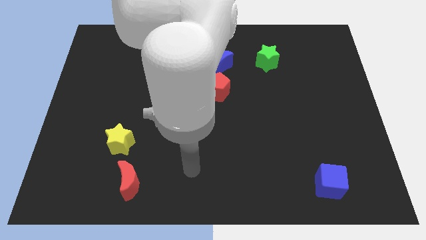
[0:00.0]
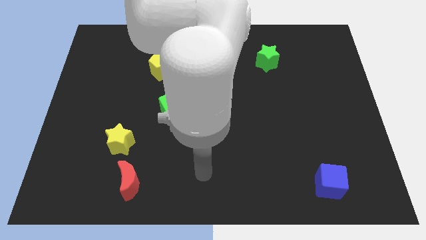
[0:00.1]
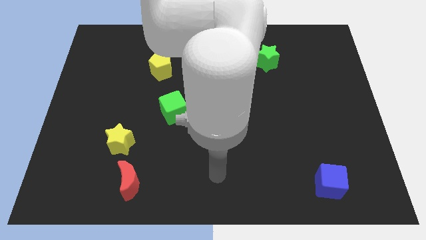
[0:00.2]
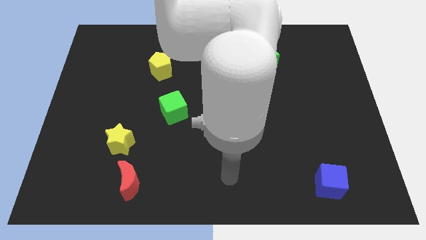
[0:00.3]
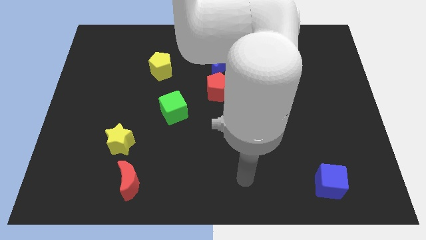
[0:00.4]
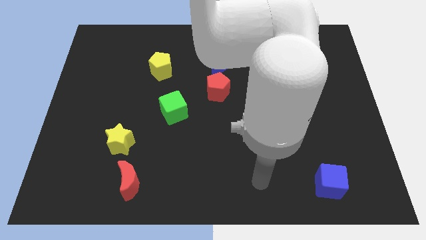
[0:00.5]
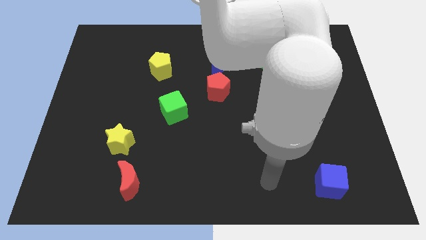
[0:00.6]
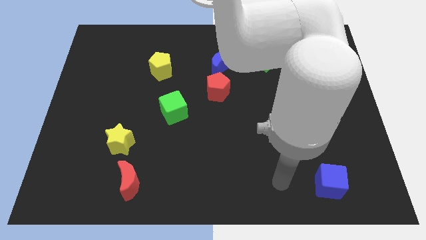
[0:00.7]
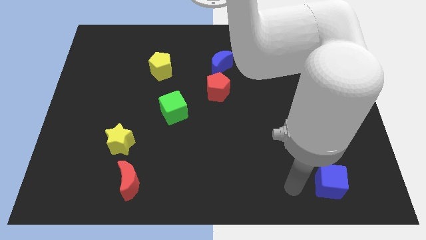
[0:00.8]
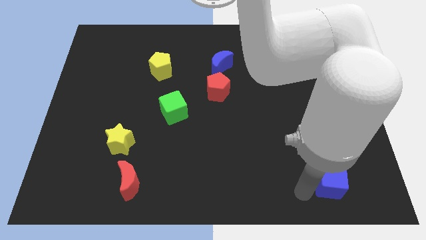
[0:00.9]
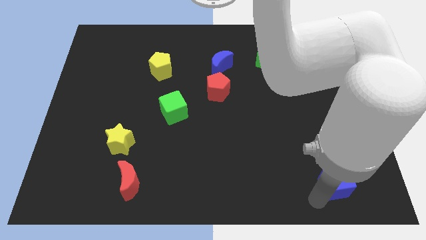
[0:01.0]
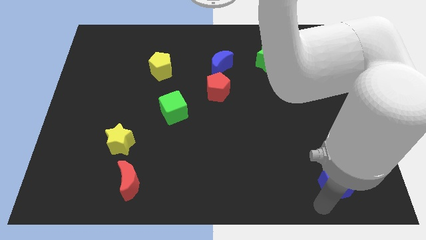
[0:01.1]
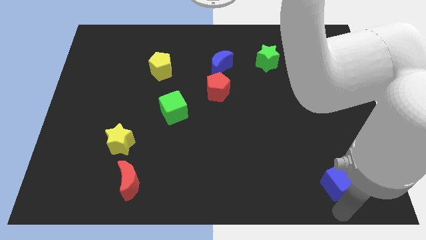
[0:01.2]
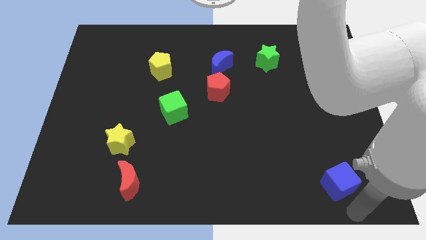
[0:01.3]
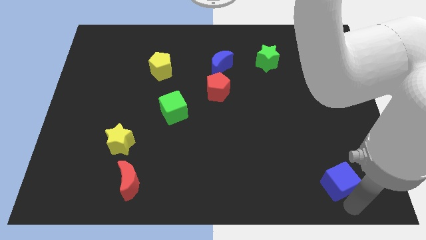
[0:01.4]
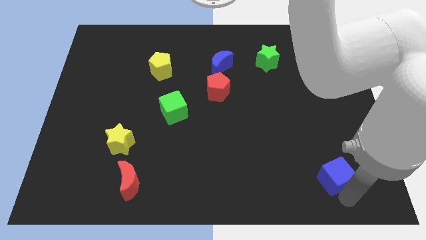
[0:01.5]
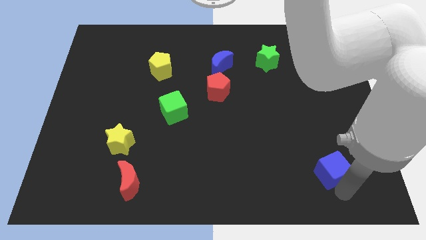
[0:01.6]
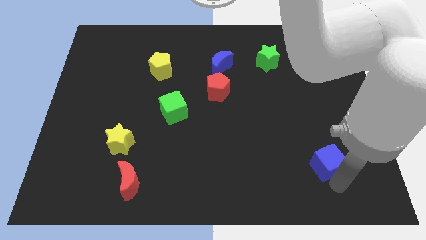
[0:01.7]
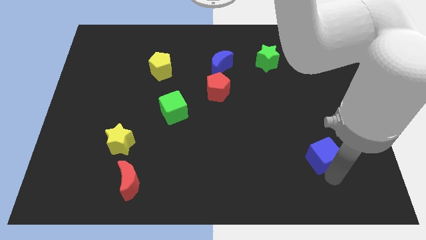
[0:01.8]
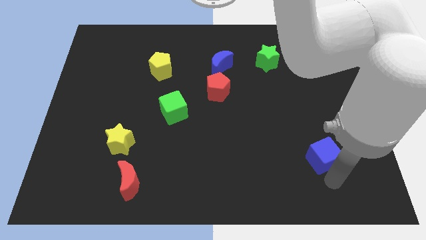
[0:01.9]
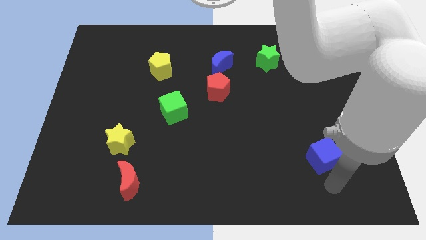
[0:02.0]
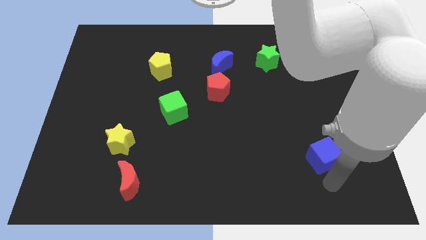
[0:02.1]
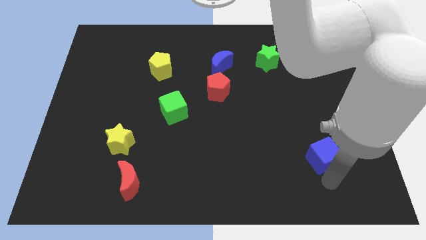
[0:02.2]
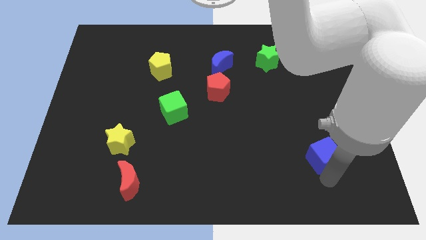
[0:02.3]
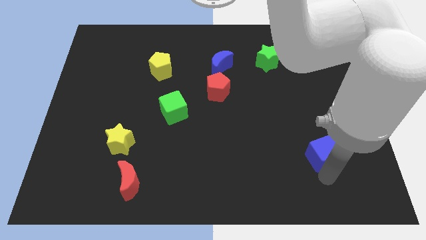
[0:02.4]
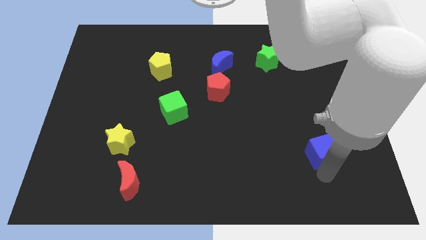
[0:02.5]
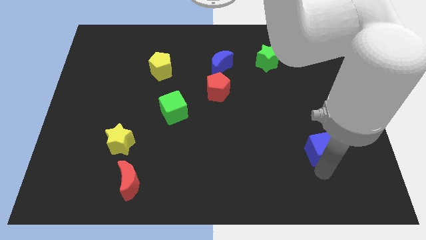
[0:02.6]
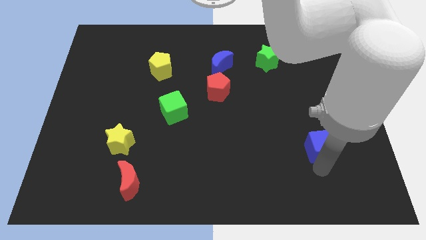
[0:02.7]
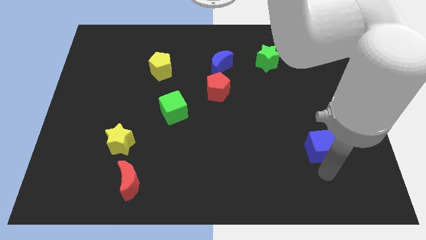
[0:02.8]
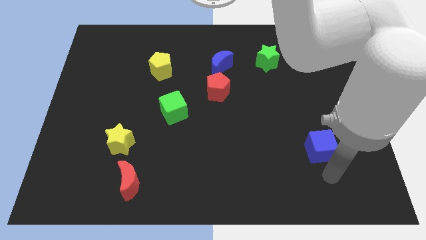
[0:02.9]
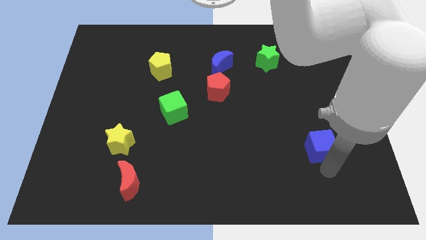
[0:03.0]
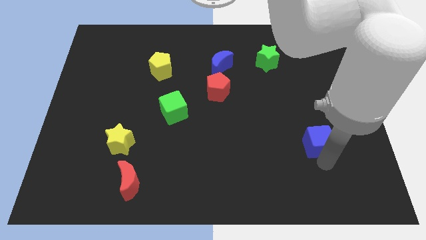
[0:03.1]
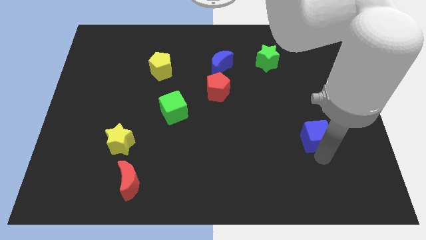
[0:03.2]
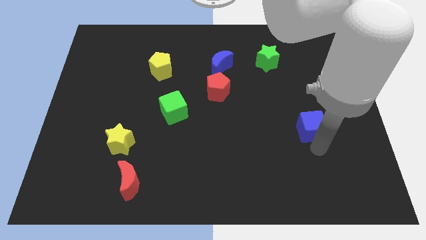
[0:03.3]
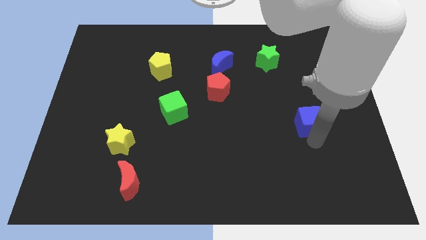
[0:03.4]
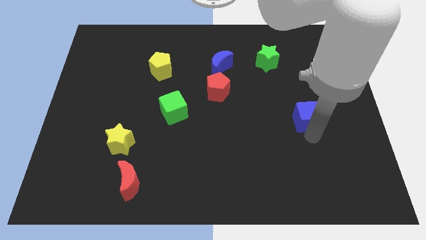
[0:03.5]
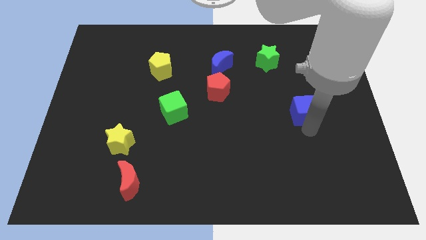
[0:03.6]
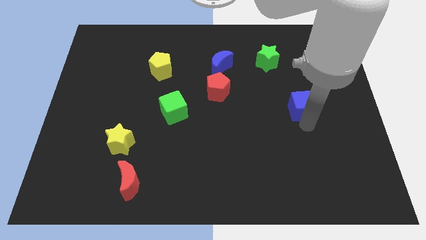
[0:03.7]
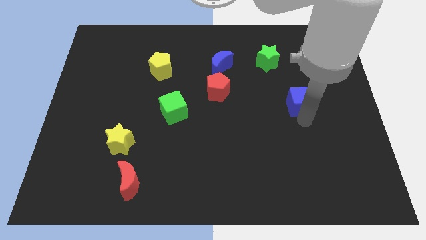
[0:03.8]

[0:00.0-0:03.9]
move the blue cube up

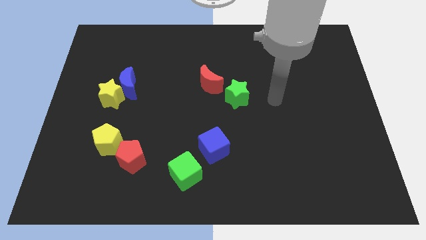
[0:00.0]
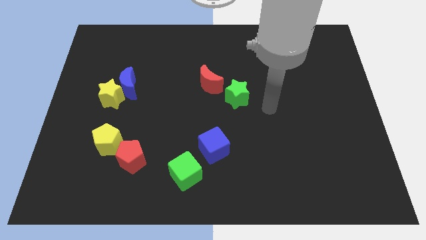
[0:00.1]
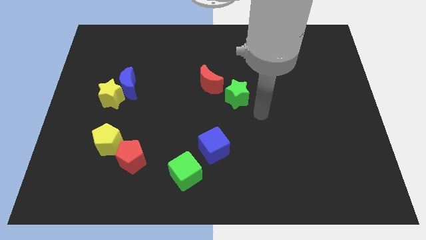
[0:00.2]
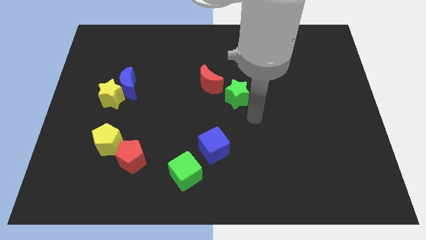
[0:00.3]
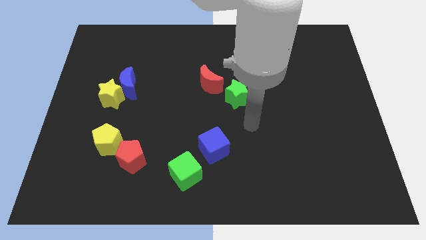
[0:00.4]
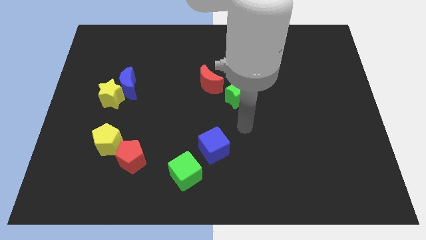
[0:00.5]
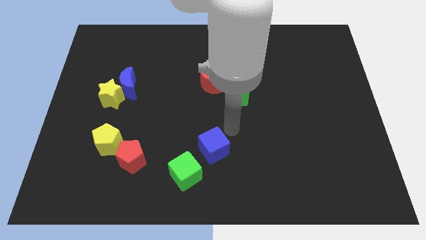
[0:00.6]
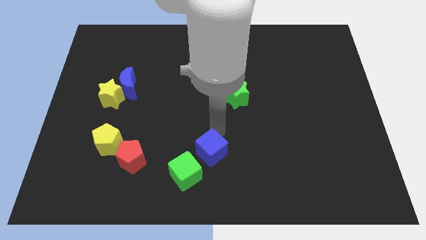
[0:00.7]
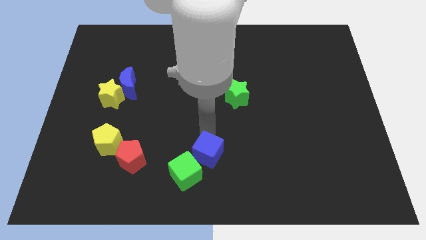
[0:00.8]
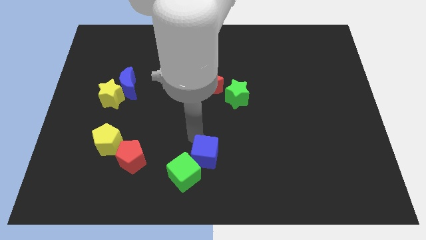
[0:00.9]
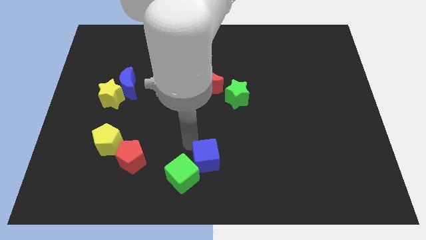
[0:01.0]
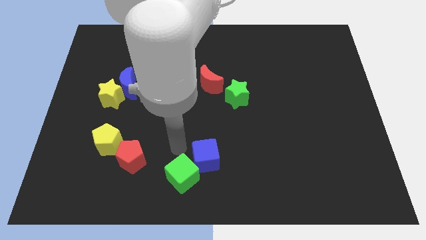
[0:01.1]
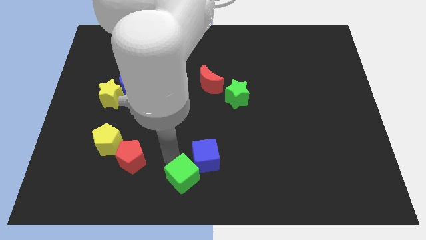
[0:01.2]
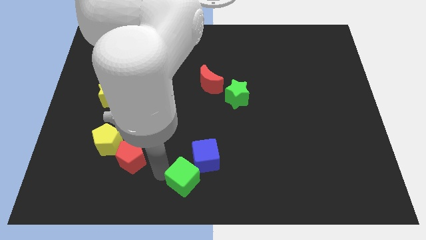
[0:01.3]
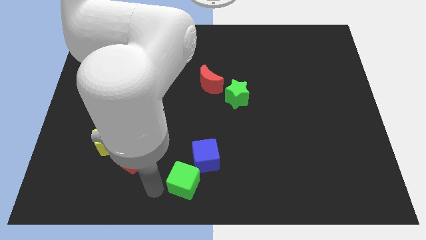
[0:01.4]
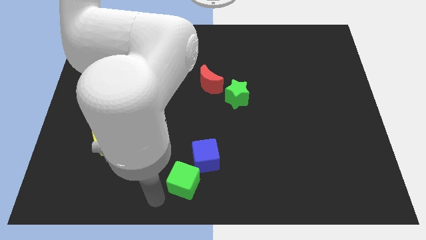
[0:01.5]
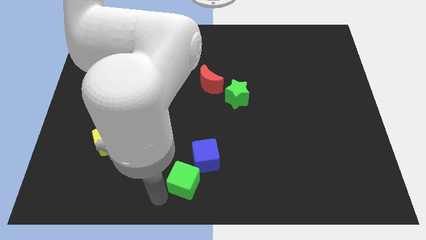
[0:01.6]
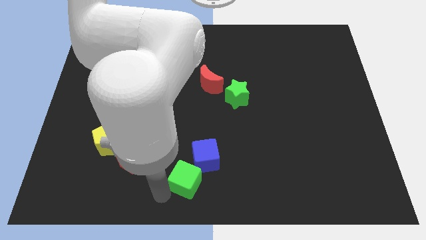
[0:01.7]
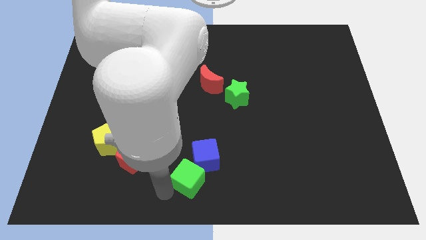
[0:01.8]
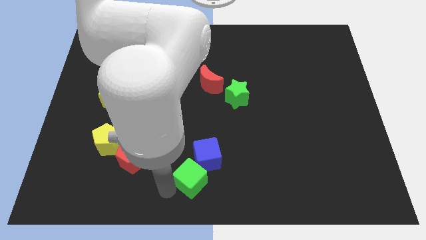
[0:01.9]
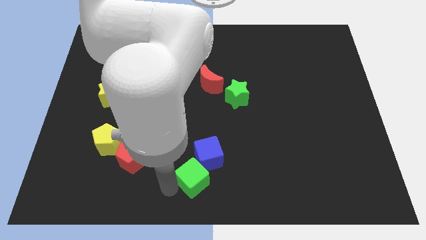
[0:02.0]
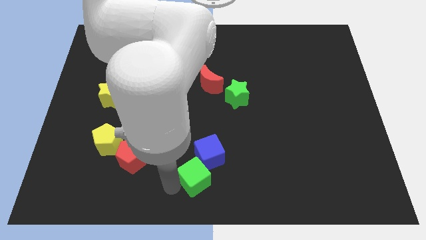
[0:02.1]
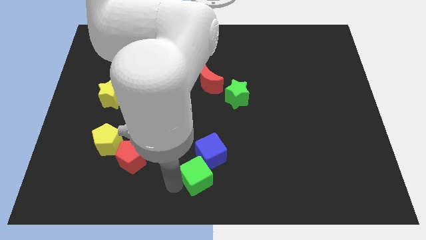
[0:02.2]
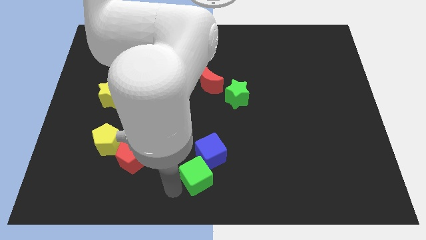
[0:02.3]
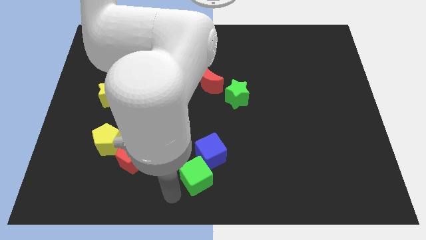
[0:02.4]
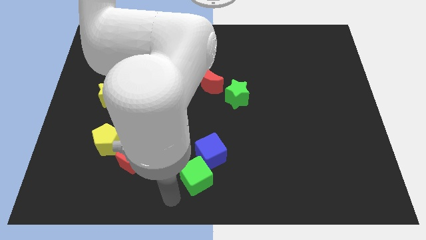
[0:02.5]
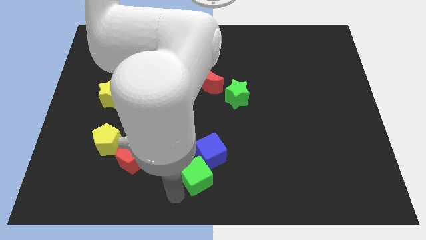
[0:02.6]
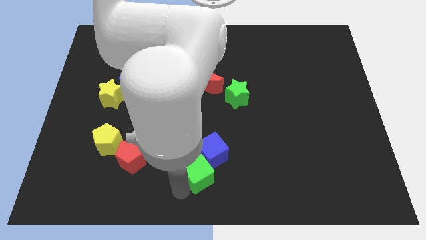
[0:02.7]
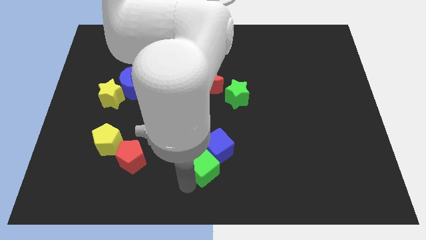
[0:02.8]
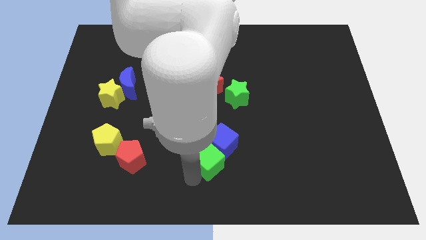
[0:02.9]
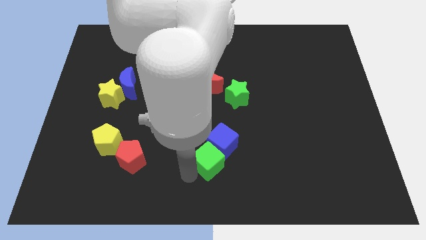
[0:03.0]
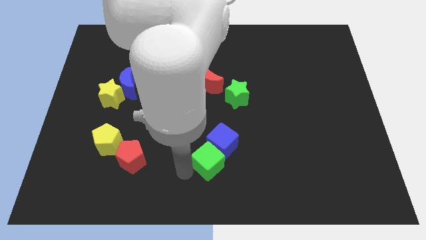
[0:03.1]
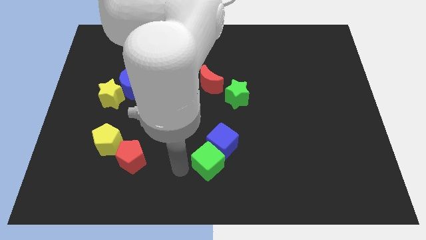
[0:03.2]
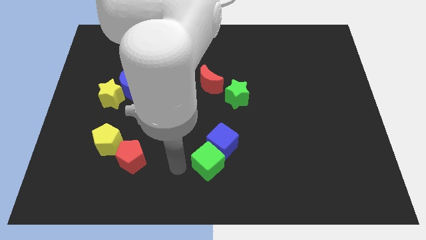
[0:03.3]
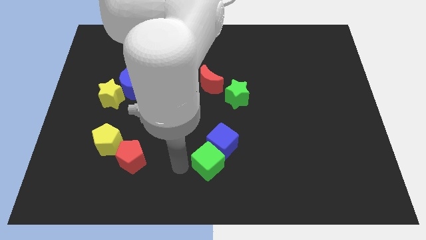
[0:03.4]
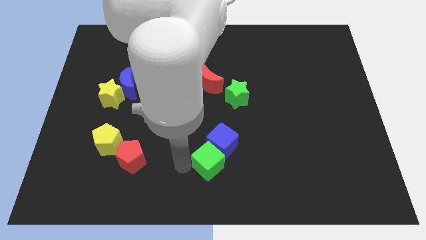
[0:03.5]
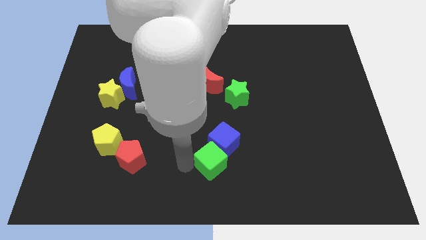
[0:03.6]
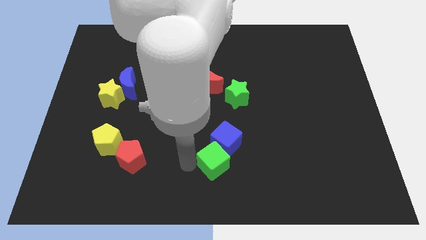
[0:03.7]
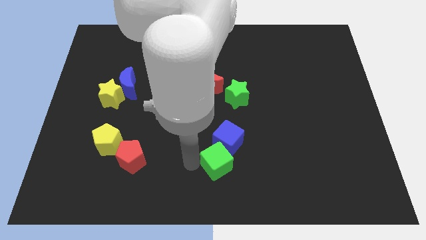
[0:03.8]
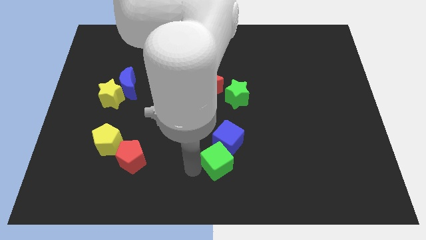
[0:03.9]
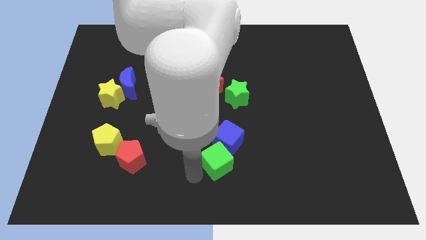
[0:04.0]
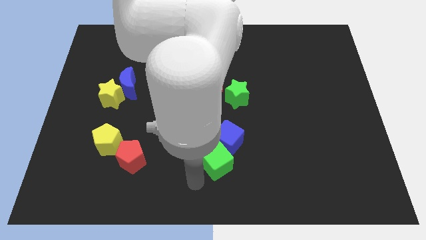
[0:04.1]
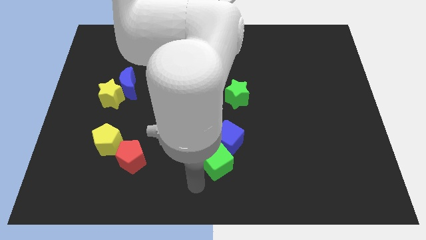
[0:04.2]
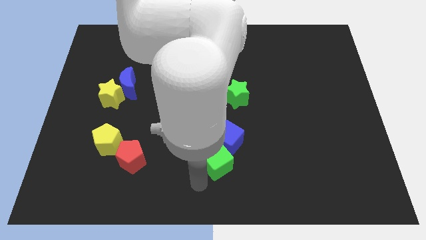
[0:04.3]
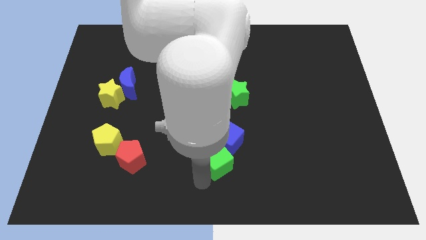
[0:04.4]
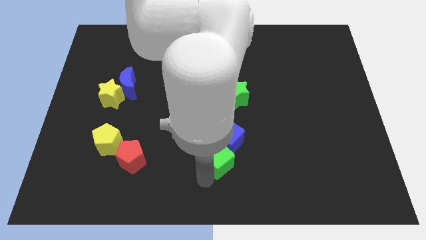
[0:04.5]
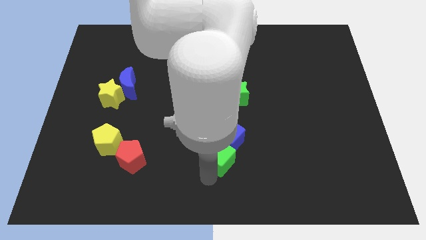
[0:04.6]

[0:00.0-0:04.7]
push the green cube a bit up and to the right diagonally

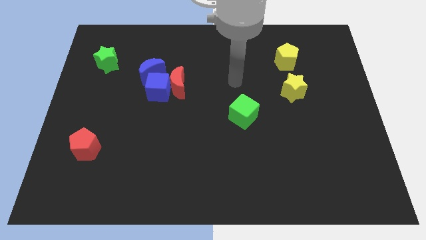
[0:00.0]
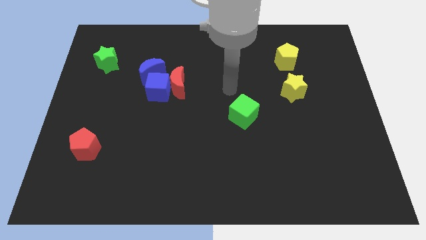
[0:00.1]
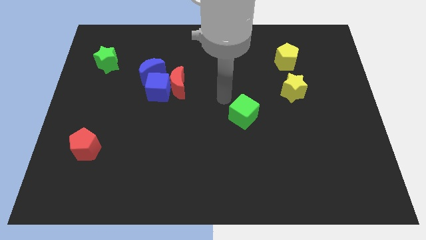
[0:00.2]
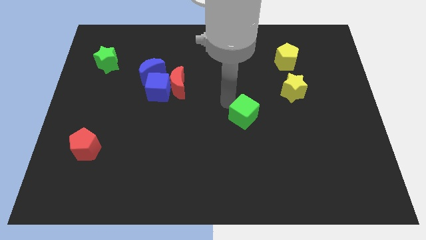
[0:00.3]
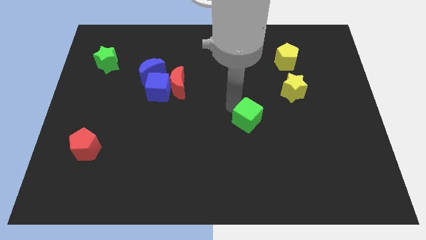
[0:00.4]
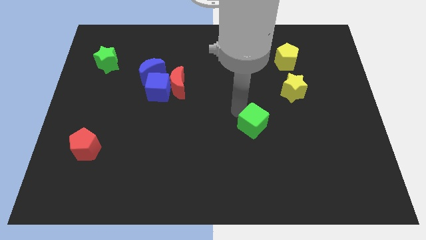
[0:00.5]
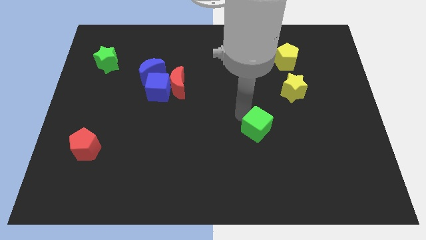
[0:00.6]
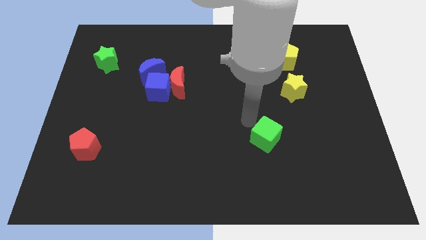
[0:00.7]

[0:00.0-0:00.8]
push the green cube downwards and then to the right slightly
